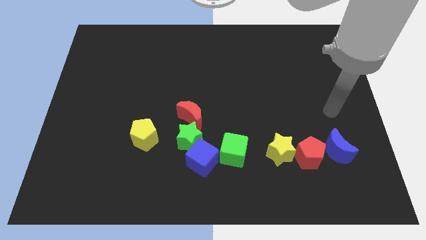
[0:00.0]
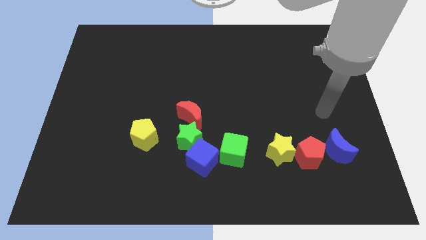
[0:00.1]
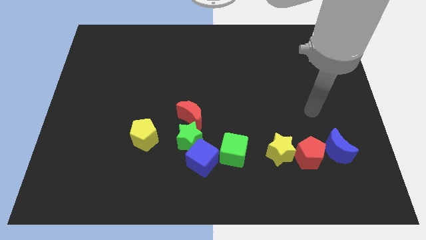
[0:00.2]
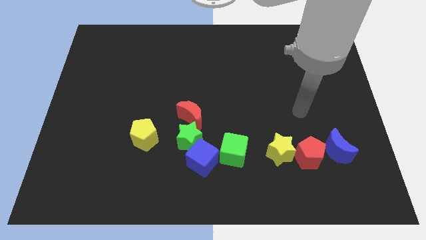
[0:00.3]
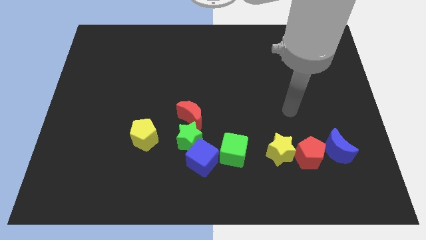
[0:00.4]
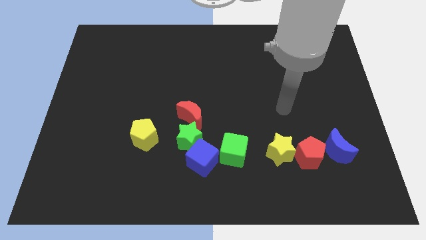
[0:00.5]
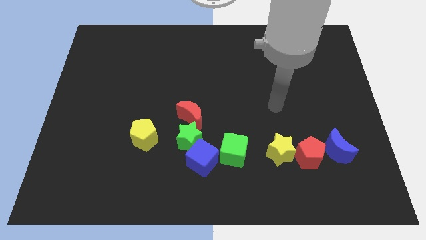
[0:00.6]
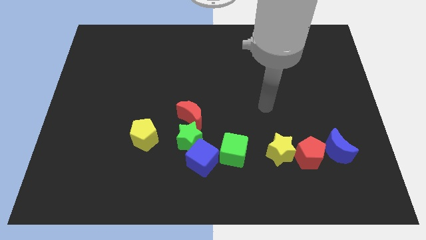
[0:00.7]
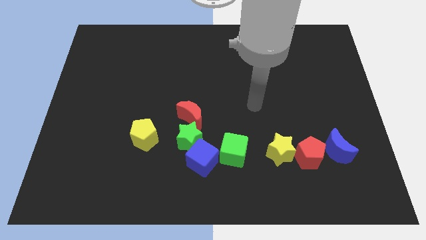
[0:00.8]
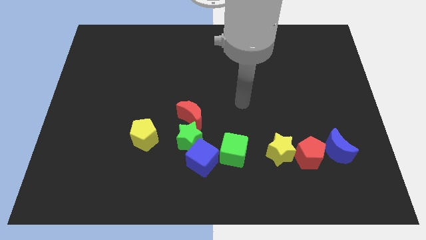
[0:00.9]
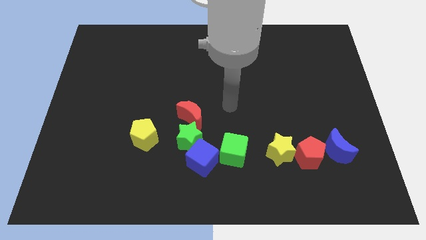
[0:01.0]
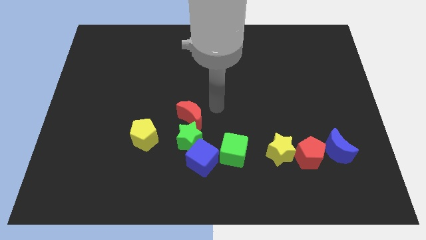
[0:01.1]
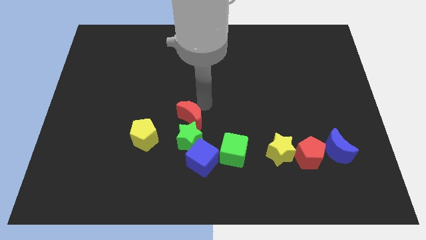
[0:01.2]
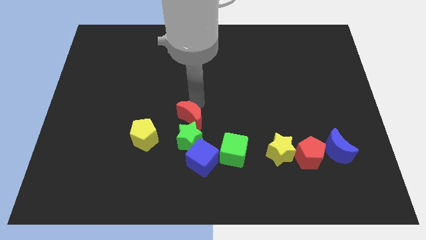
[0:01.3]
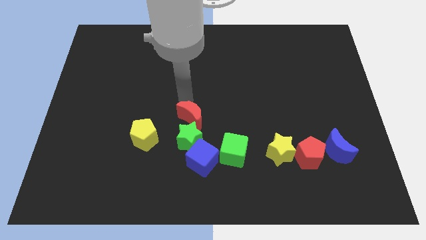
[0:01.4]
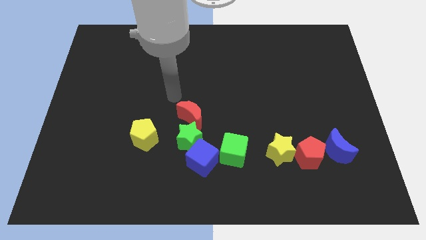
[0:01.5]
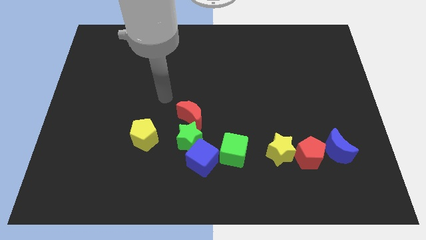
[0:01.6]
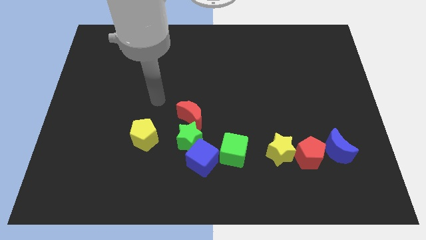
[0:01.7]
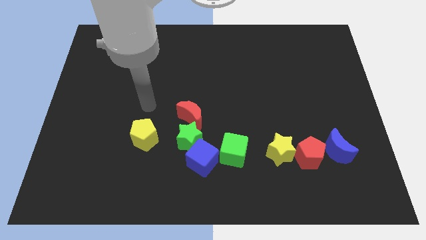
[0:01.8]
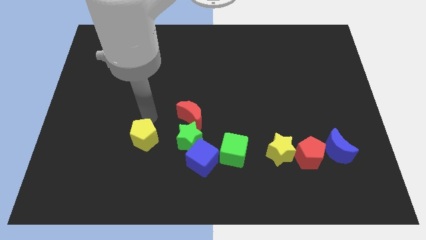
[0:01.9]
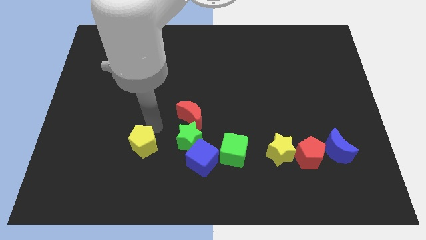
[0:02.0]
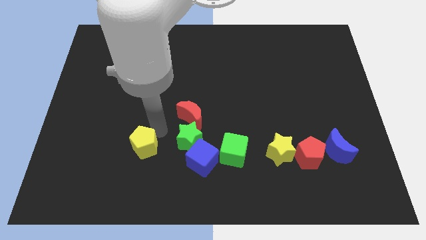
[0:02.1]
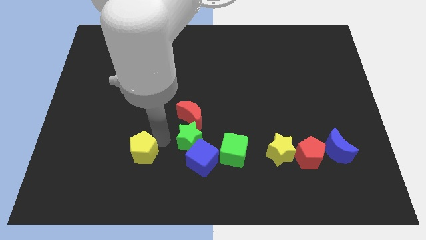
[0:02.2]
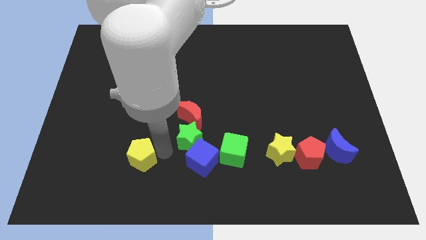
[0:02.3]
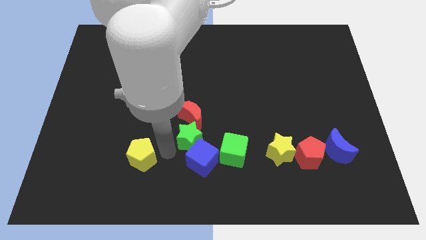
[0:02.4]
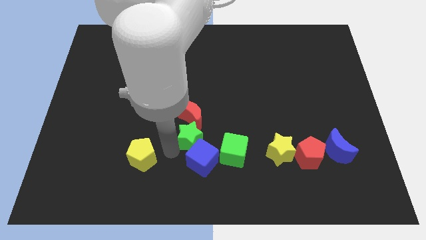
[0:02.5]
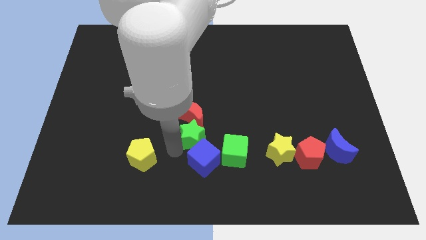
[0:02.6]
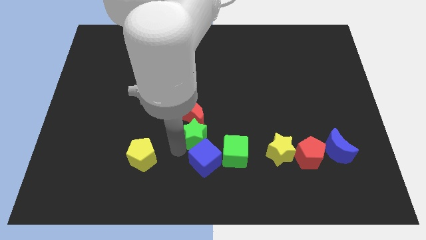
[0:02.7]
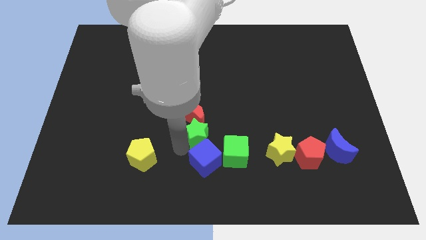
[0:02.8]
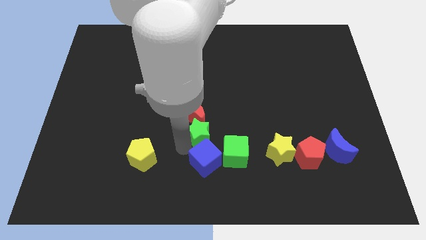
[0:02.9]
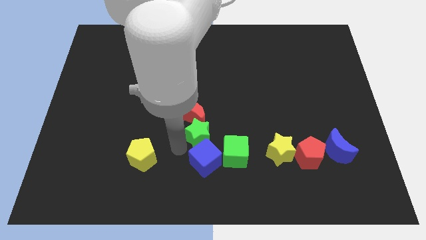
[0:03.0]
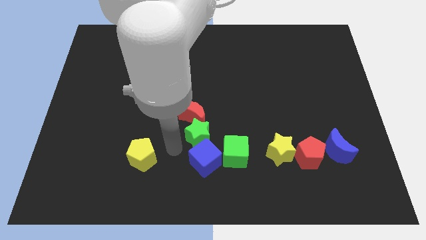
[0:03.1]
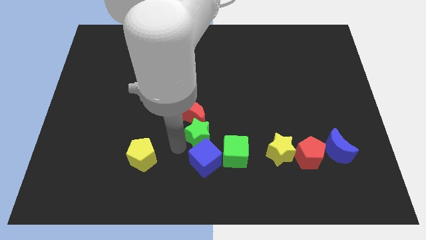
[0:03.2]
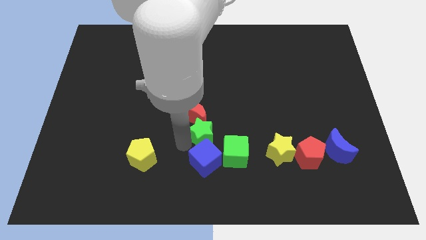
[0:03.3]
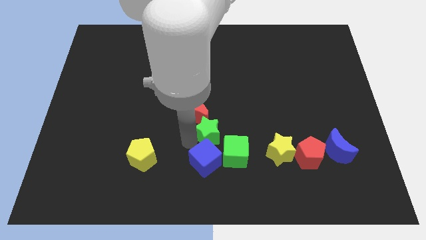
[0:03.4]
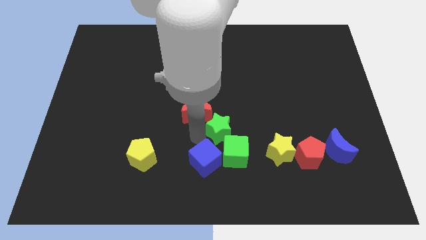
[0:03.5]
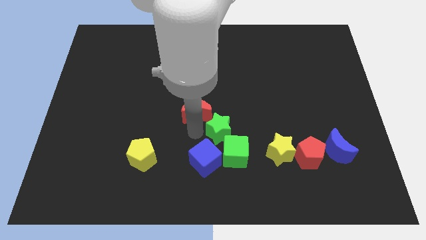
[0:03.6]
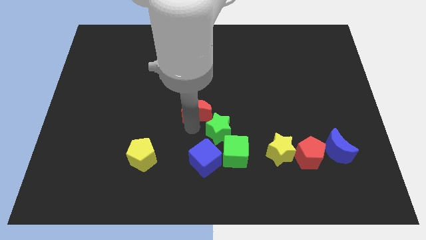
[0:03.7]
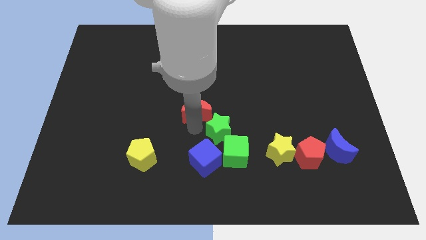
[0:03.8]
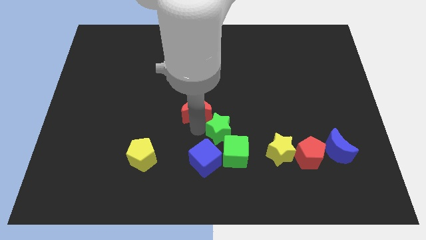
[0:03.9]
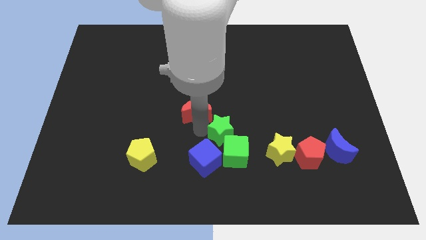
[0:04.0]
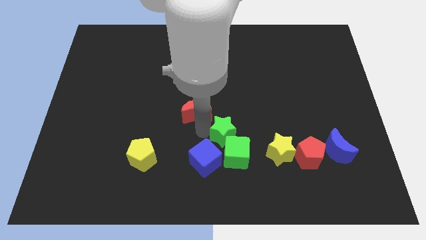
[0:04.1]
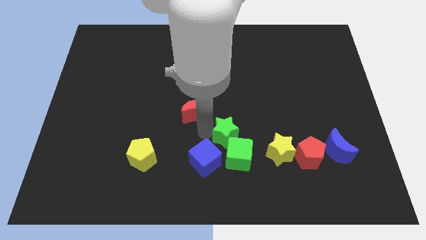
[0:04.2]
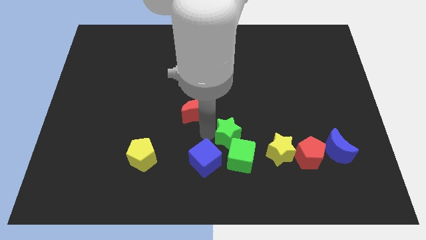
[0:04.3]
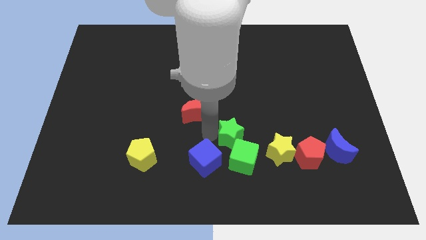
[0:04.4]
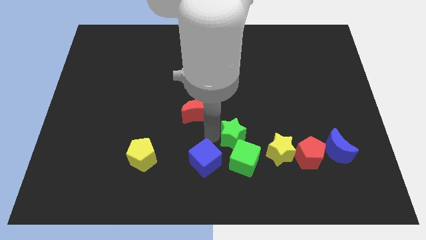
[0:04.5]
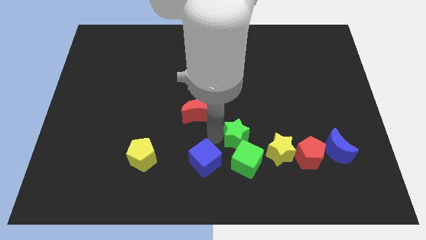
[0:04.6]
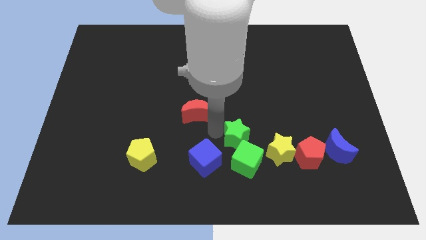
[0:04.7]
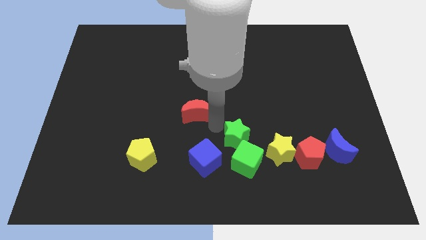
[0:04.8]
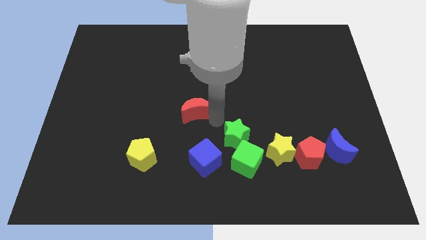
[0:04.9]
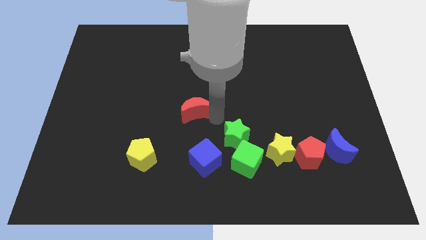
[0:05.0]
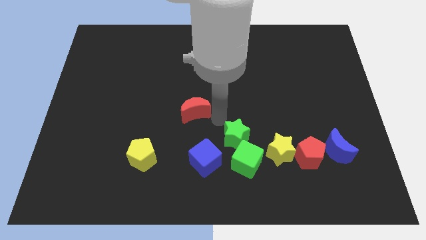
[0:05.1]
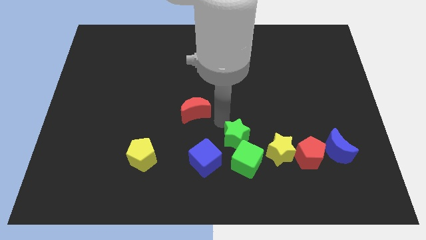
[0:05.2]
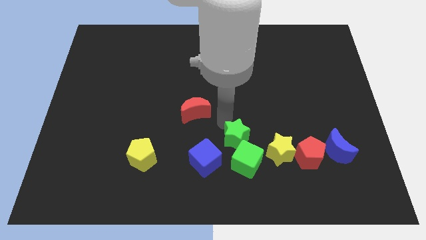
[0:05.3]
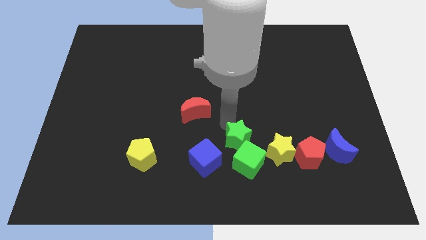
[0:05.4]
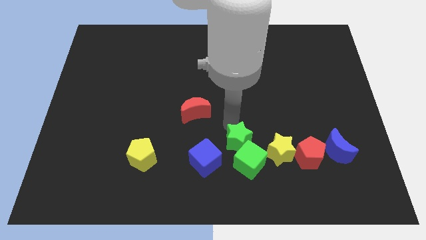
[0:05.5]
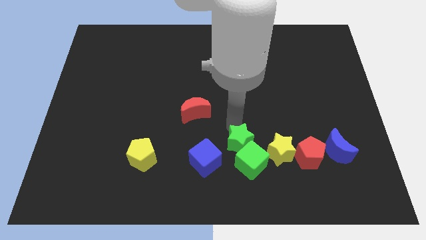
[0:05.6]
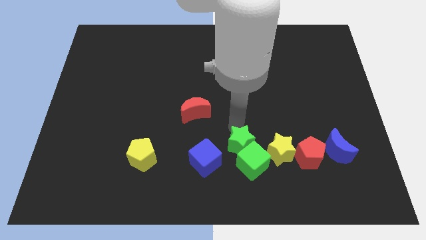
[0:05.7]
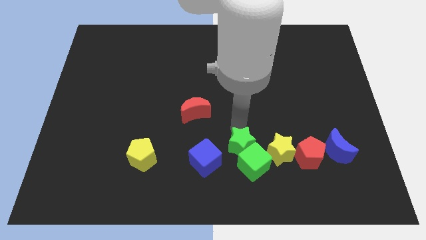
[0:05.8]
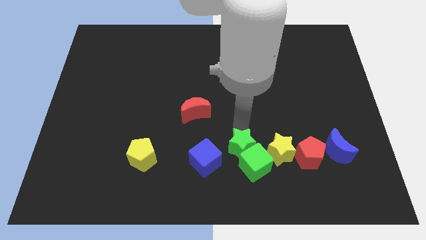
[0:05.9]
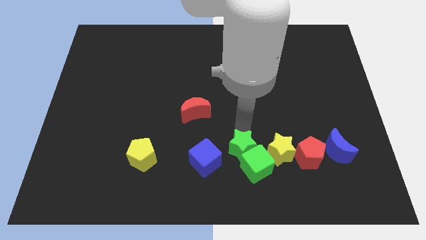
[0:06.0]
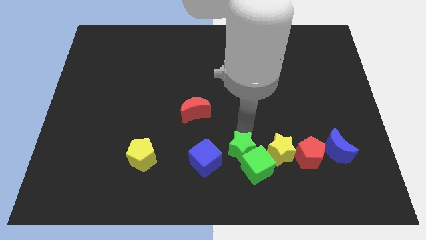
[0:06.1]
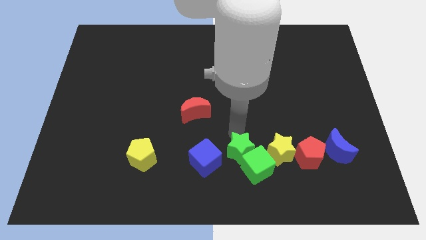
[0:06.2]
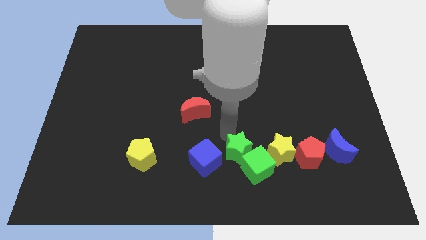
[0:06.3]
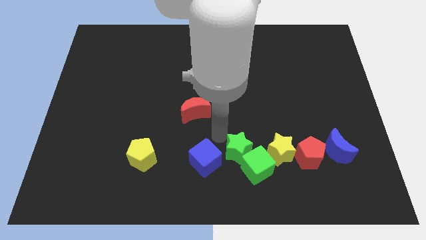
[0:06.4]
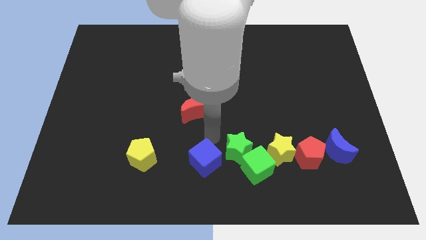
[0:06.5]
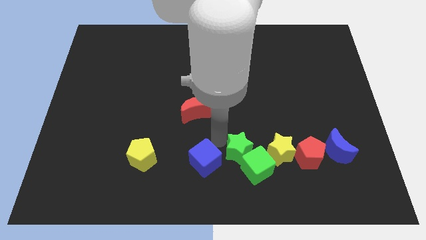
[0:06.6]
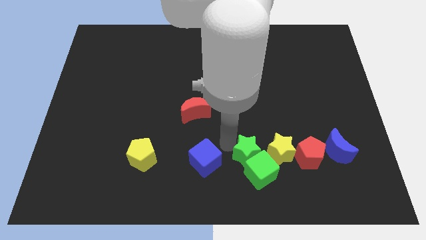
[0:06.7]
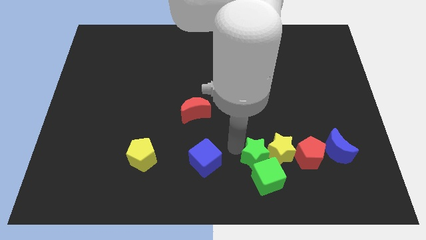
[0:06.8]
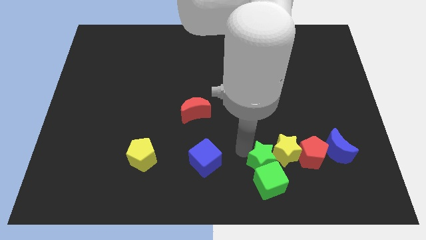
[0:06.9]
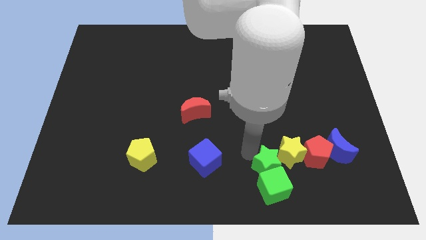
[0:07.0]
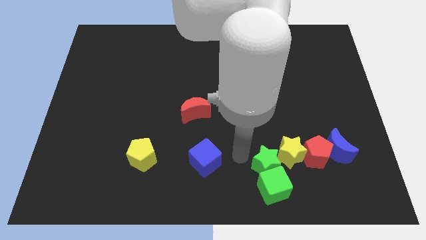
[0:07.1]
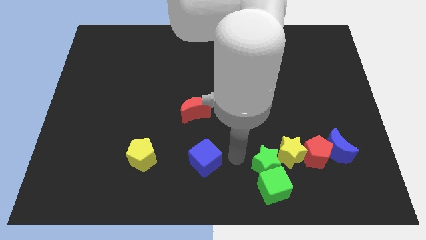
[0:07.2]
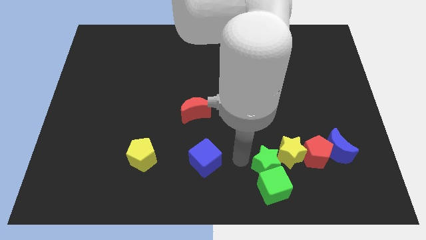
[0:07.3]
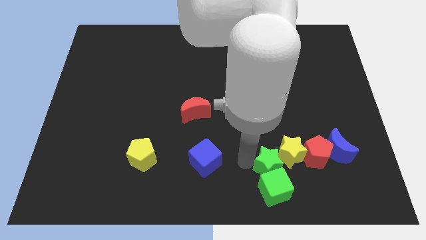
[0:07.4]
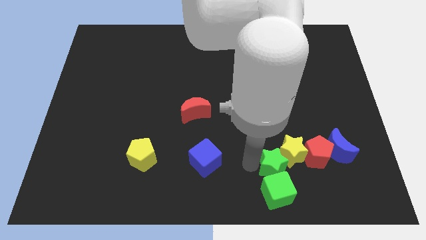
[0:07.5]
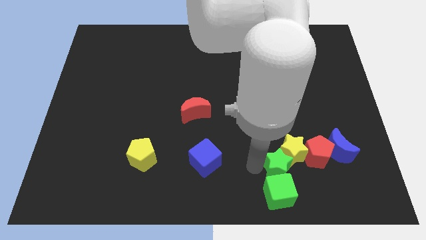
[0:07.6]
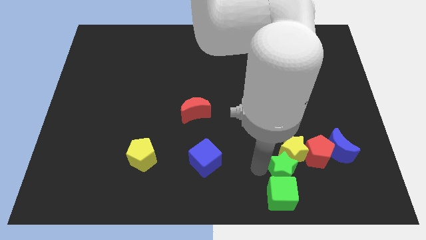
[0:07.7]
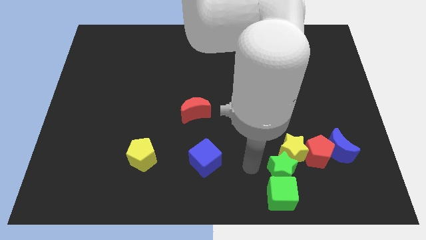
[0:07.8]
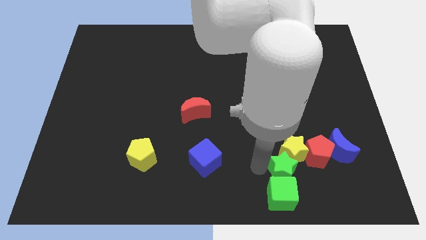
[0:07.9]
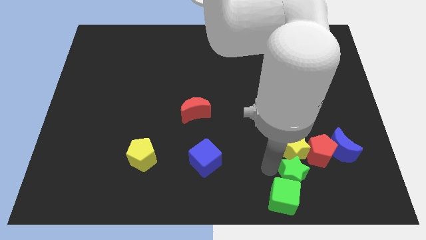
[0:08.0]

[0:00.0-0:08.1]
slide the green star diagonally down and to the right of the yellow star
